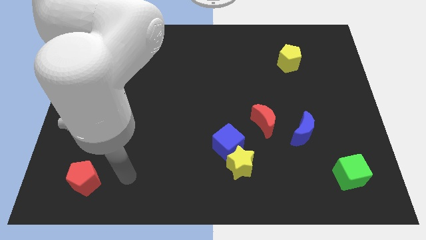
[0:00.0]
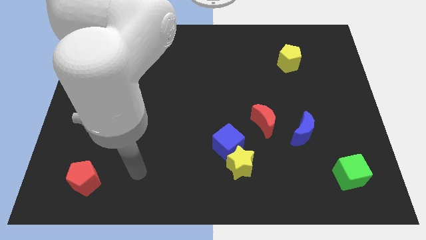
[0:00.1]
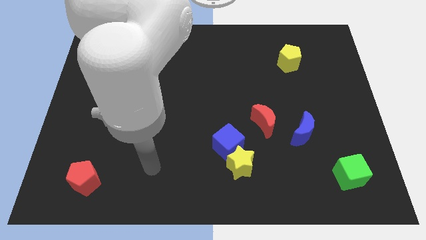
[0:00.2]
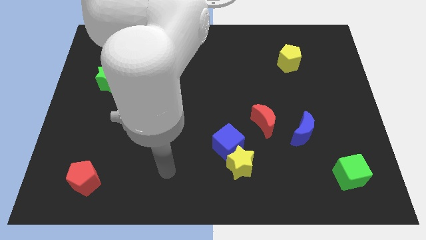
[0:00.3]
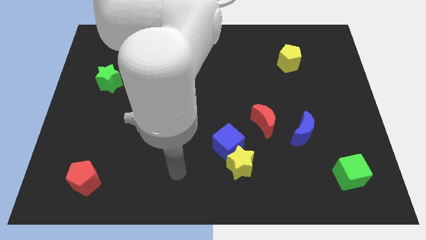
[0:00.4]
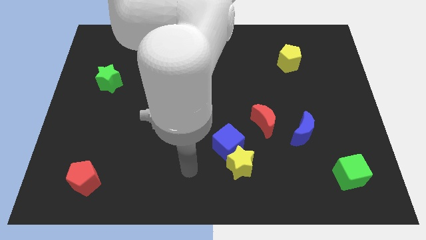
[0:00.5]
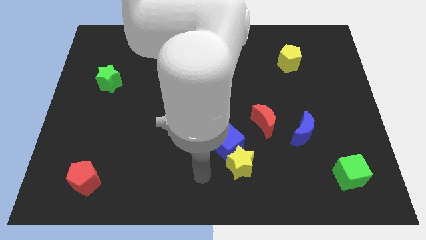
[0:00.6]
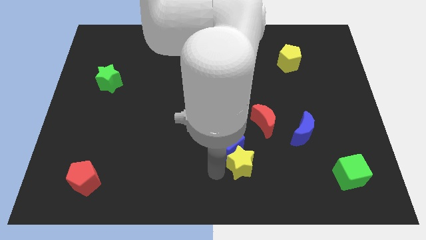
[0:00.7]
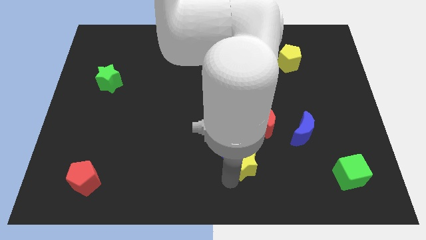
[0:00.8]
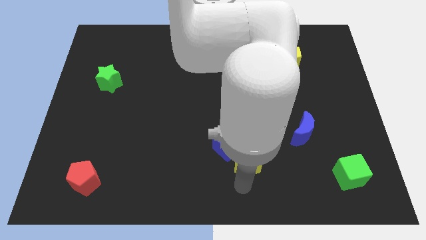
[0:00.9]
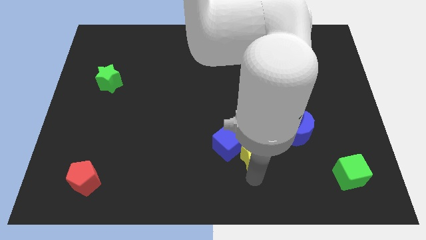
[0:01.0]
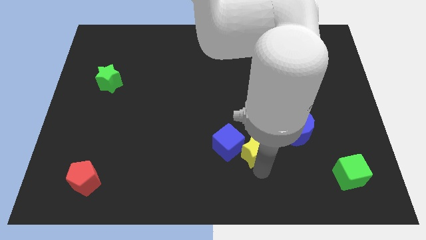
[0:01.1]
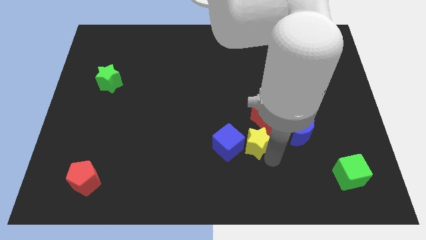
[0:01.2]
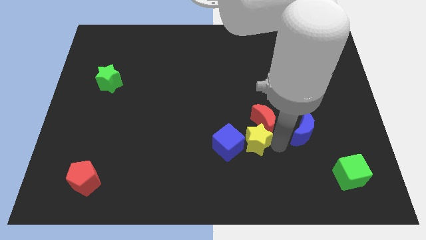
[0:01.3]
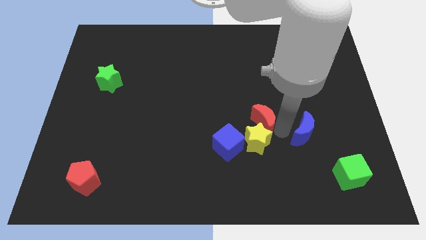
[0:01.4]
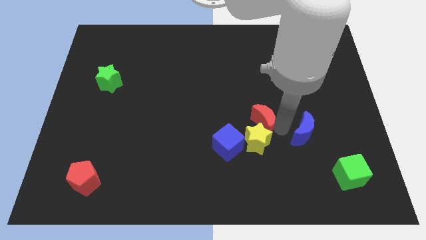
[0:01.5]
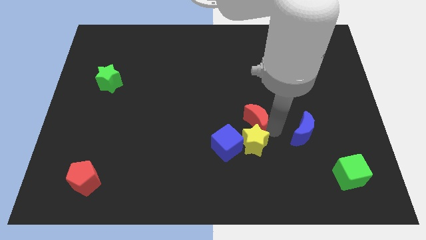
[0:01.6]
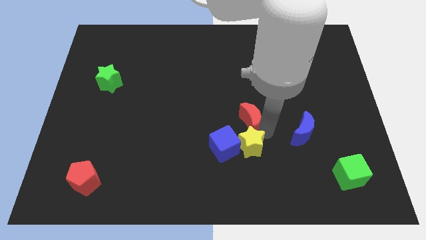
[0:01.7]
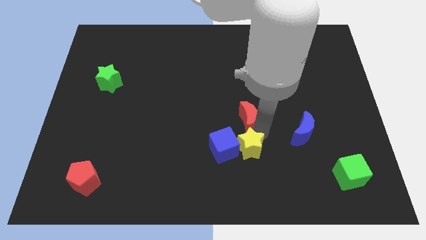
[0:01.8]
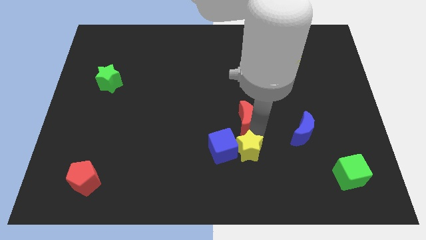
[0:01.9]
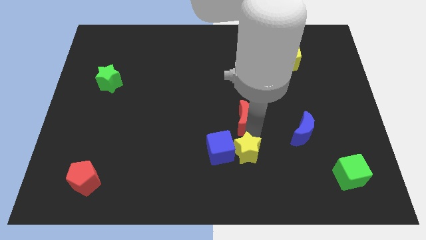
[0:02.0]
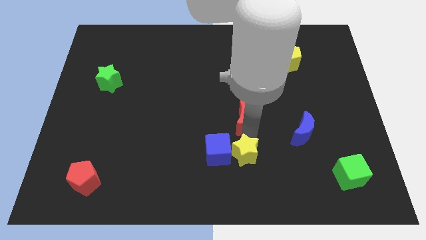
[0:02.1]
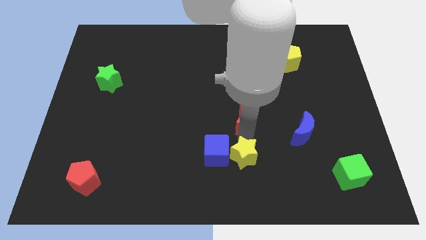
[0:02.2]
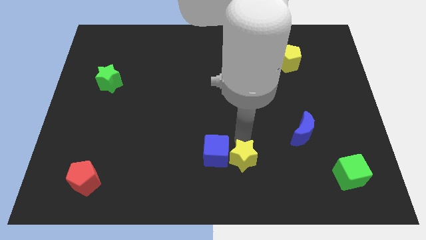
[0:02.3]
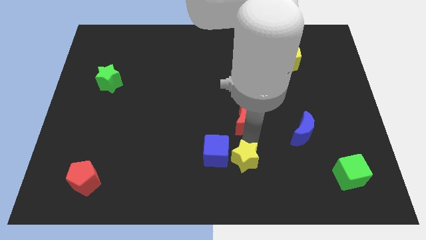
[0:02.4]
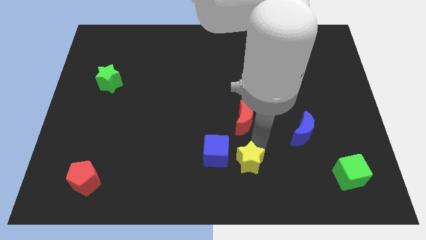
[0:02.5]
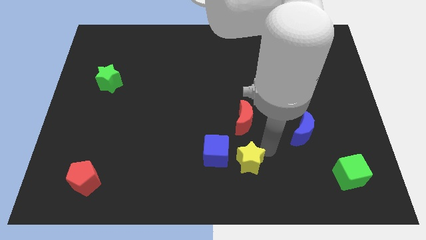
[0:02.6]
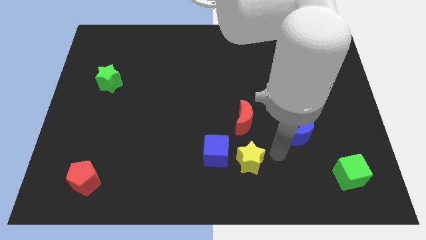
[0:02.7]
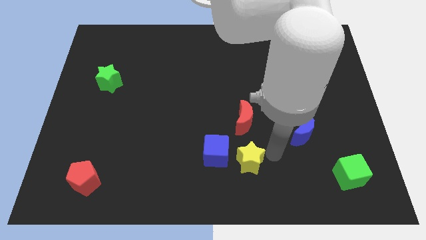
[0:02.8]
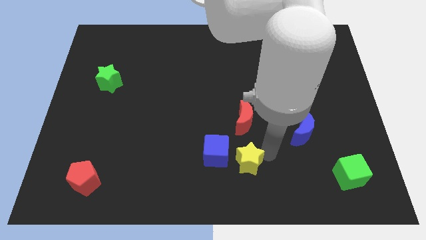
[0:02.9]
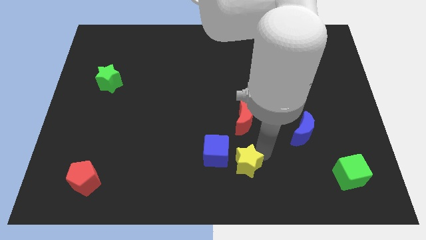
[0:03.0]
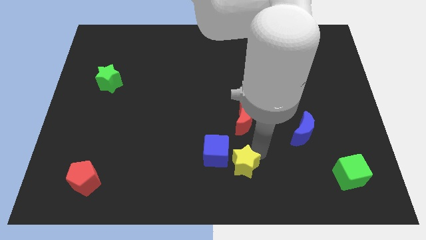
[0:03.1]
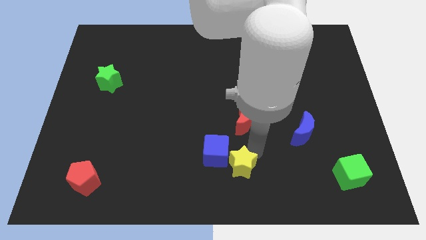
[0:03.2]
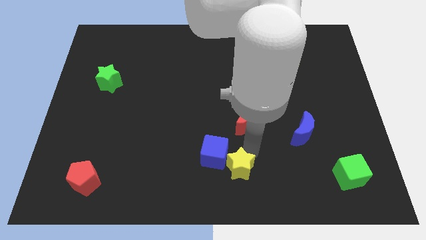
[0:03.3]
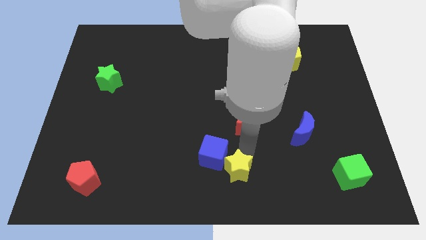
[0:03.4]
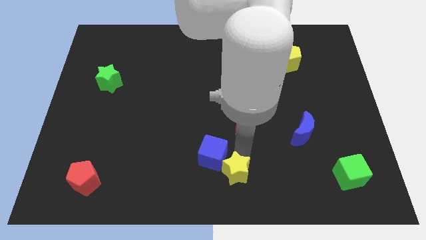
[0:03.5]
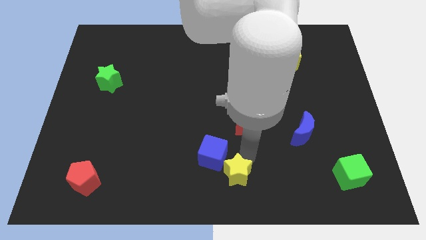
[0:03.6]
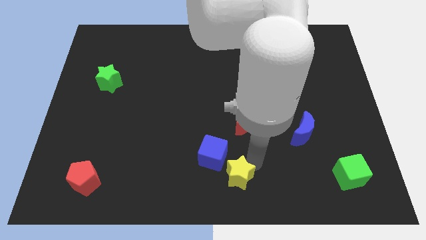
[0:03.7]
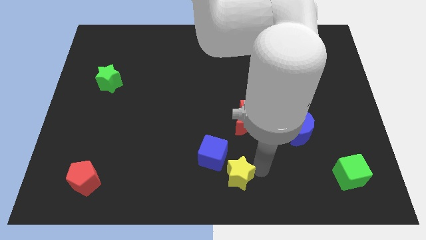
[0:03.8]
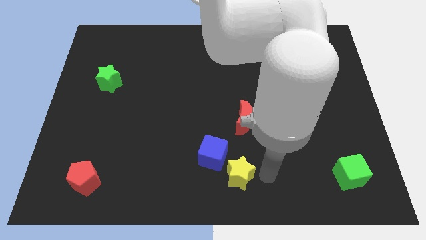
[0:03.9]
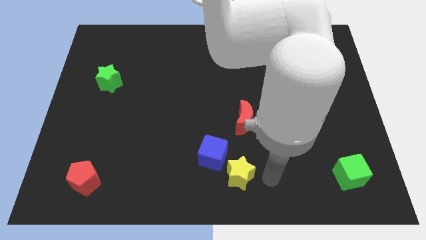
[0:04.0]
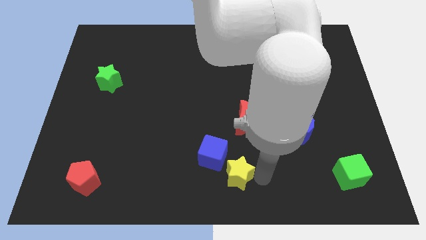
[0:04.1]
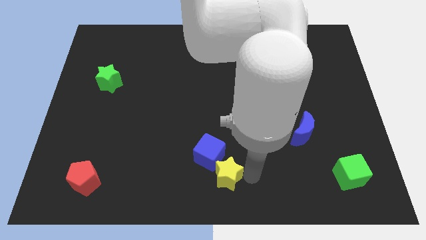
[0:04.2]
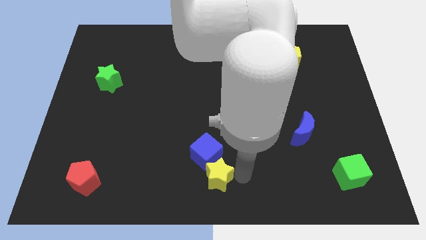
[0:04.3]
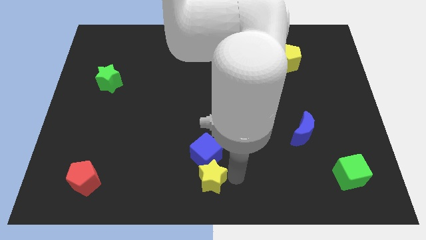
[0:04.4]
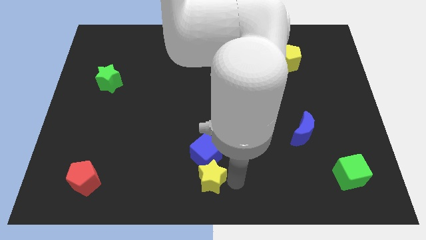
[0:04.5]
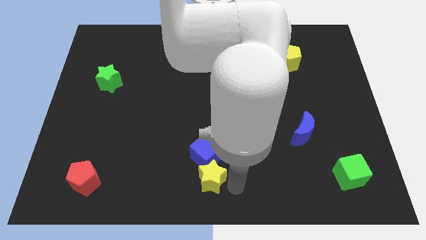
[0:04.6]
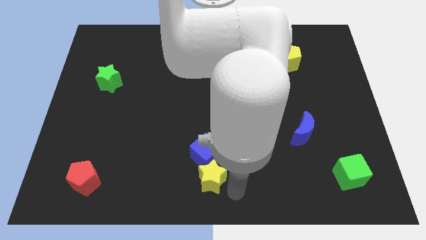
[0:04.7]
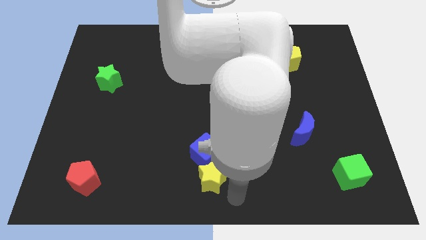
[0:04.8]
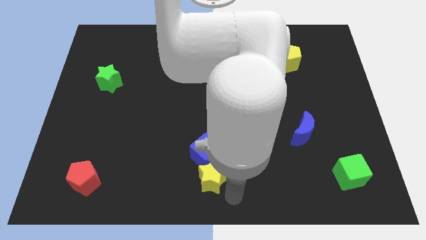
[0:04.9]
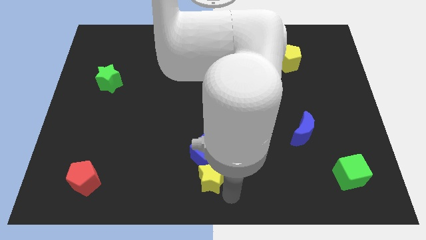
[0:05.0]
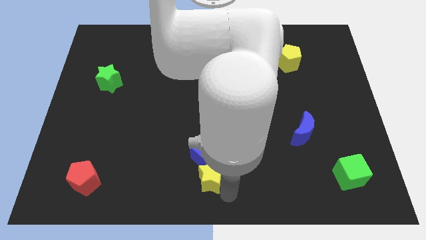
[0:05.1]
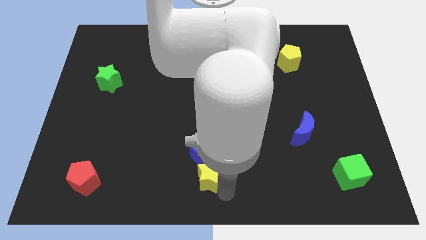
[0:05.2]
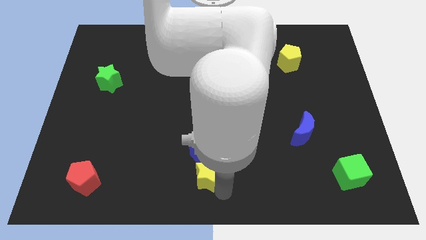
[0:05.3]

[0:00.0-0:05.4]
slightly push the yellow star left

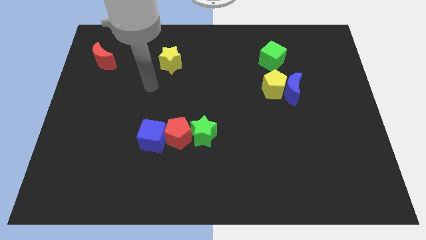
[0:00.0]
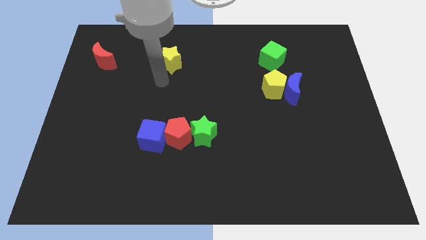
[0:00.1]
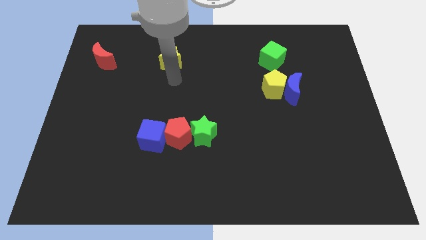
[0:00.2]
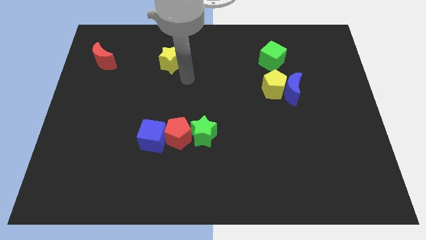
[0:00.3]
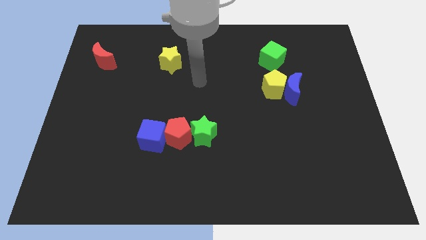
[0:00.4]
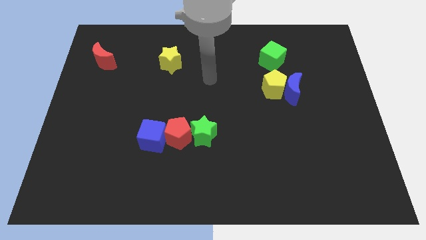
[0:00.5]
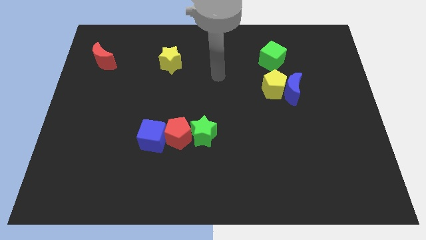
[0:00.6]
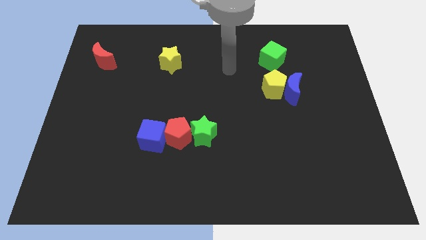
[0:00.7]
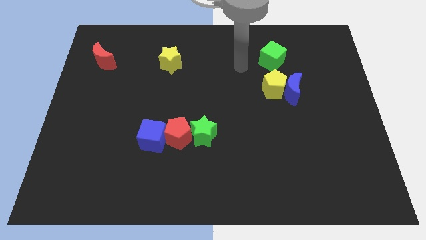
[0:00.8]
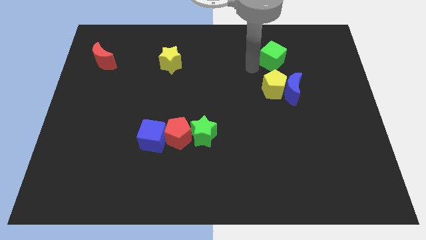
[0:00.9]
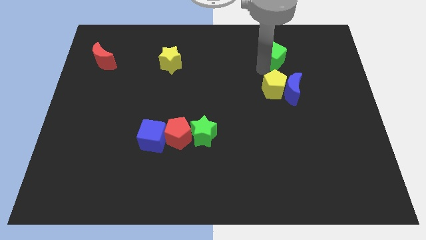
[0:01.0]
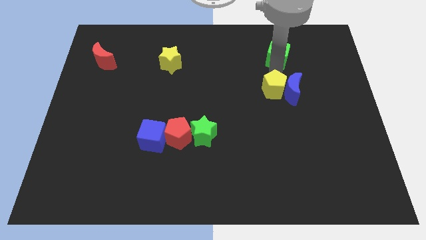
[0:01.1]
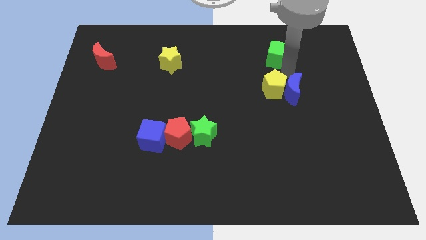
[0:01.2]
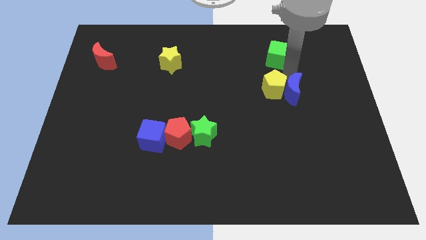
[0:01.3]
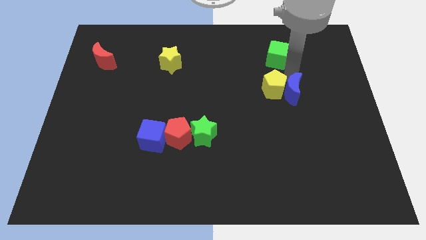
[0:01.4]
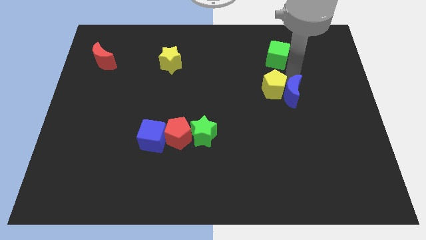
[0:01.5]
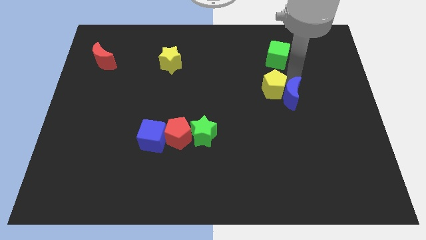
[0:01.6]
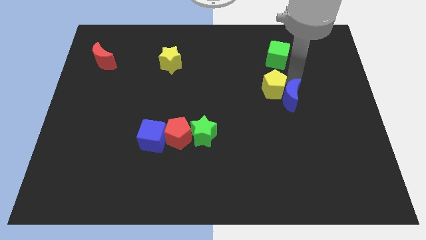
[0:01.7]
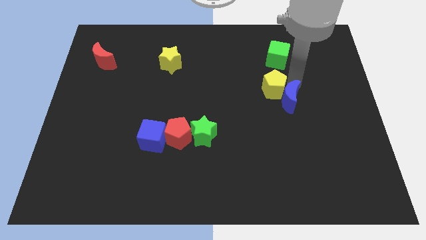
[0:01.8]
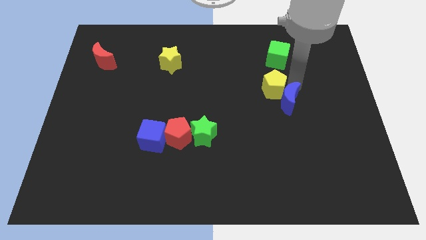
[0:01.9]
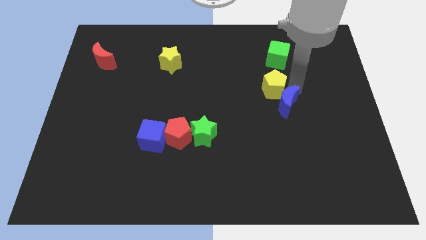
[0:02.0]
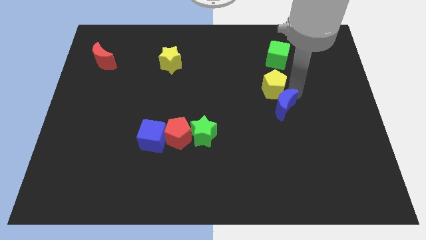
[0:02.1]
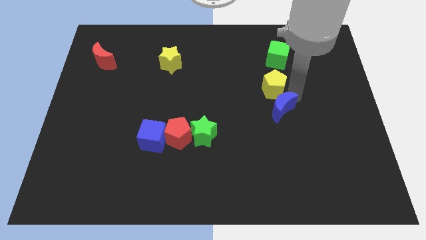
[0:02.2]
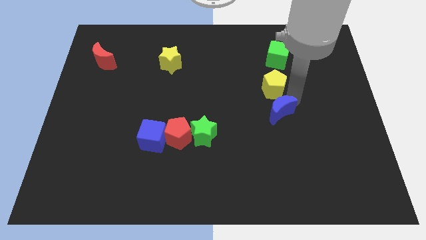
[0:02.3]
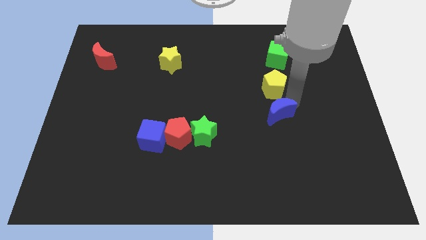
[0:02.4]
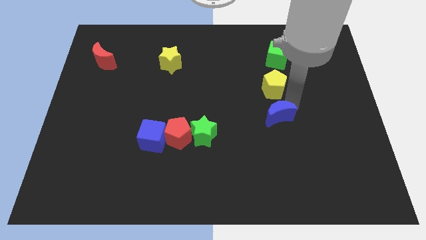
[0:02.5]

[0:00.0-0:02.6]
slightly slide the blue moon down

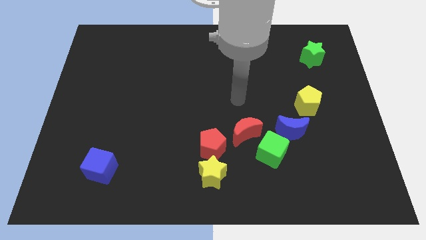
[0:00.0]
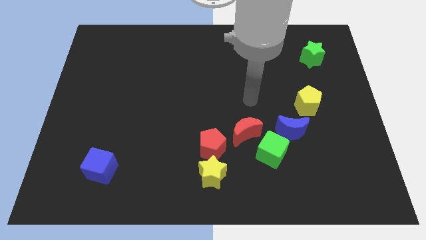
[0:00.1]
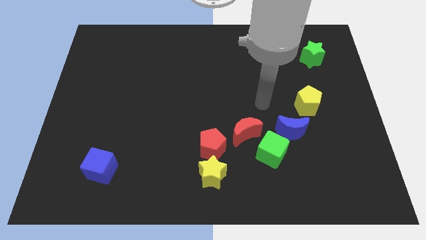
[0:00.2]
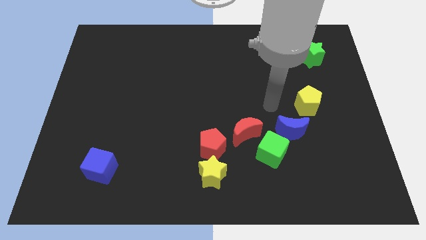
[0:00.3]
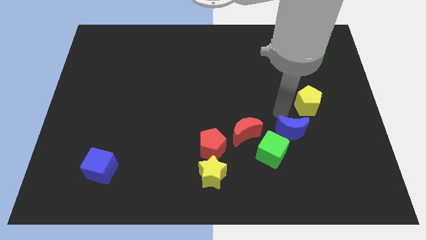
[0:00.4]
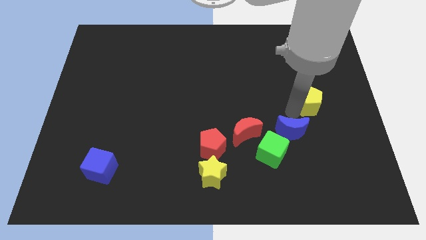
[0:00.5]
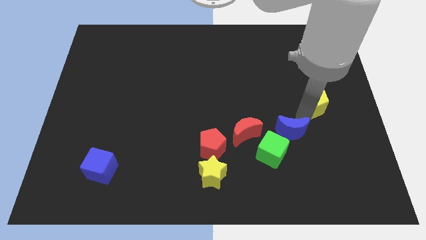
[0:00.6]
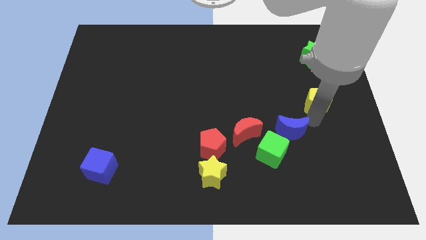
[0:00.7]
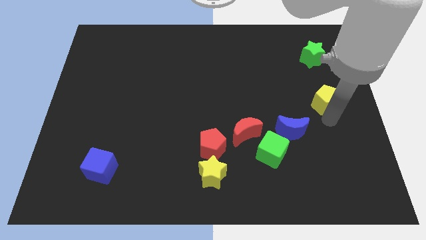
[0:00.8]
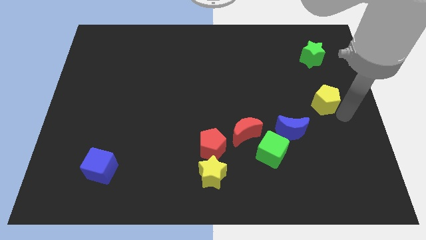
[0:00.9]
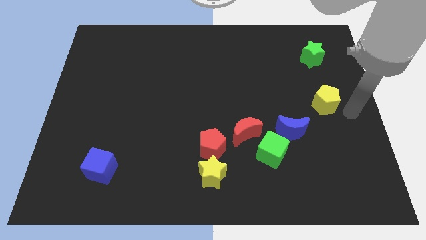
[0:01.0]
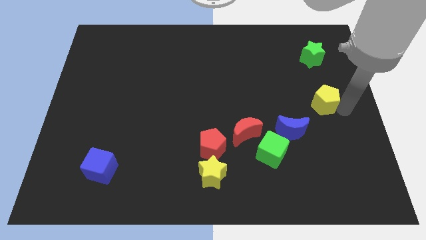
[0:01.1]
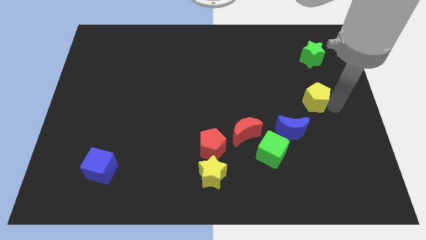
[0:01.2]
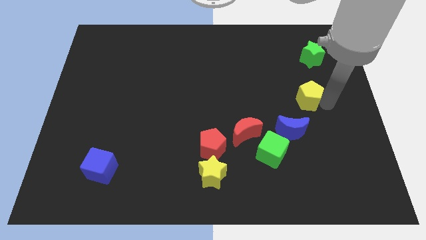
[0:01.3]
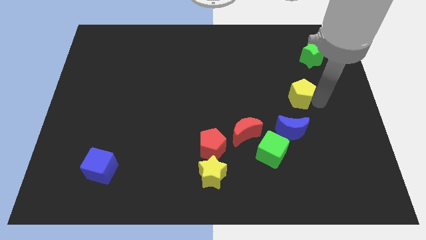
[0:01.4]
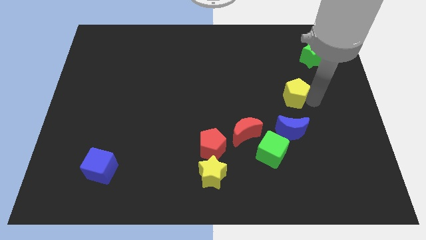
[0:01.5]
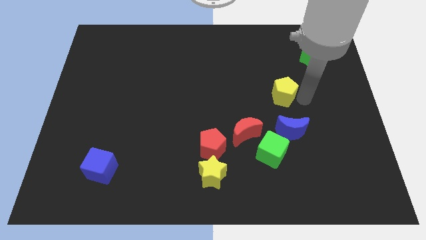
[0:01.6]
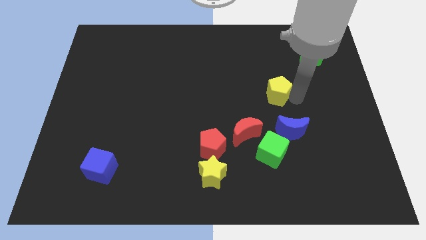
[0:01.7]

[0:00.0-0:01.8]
slide the yellow pentagon somewhat diagonally upwards and to the left
